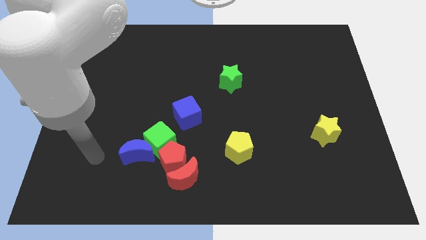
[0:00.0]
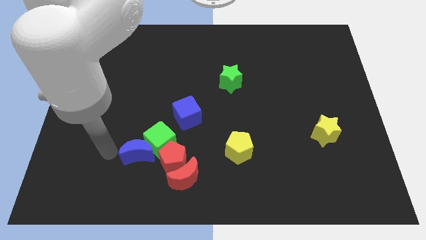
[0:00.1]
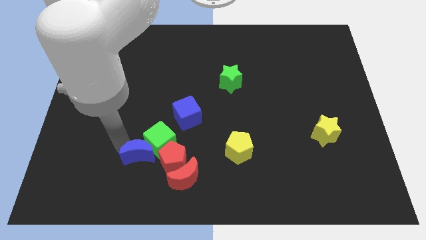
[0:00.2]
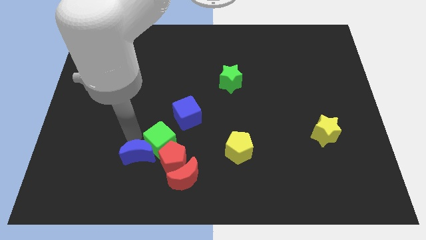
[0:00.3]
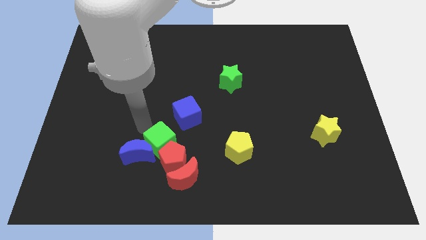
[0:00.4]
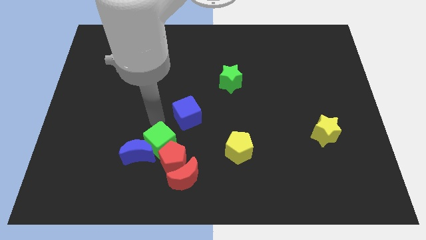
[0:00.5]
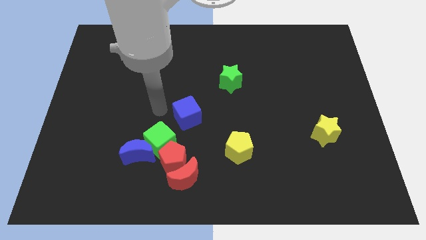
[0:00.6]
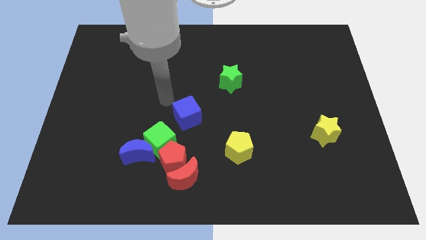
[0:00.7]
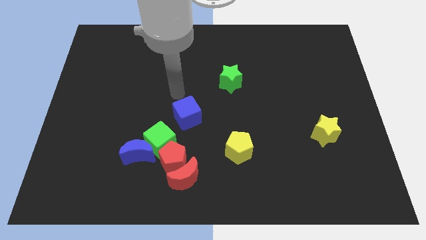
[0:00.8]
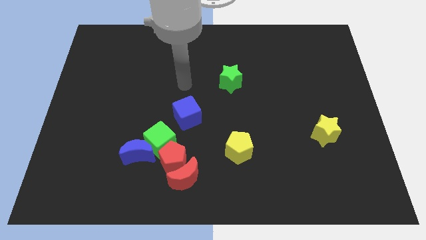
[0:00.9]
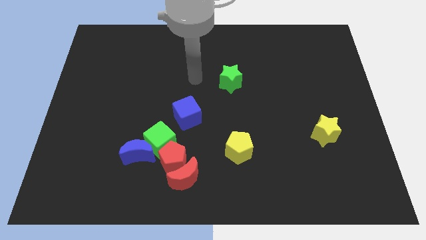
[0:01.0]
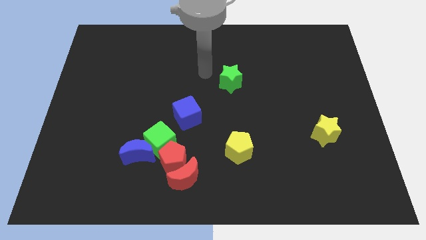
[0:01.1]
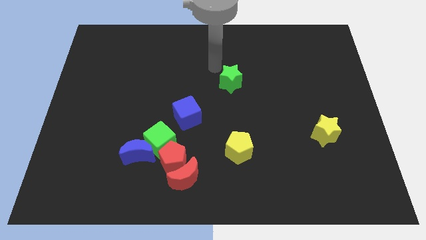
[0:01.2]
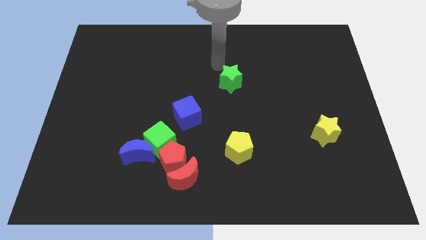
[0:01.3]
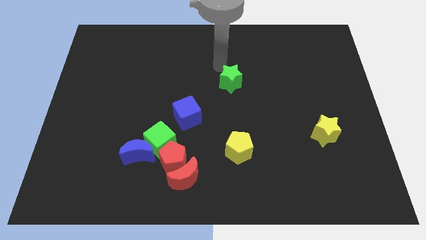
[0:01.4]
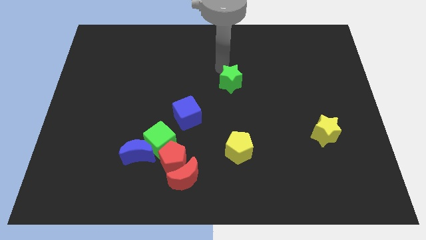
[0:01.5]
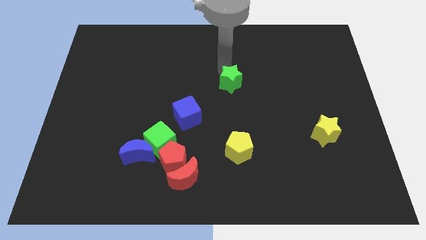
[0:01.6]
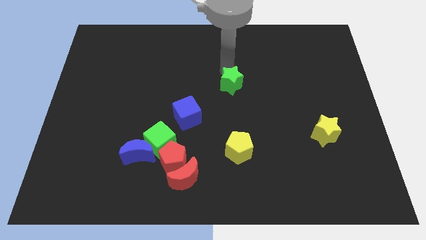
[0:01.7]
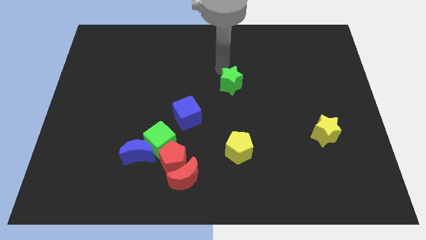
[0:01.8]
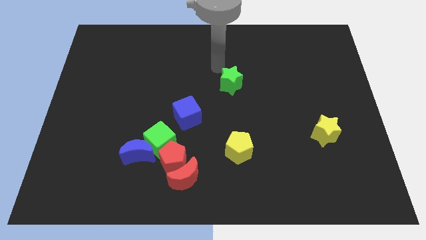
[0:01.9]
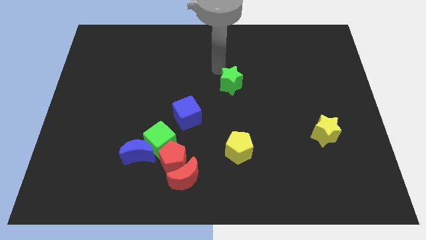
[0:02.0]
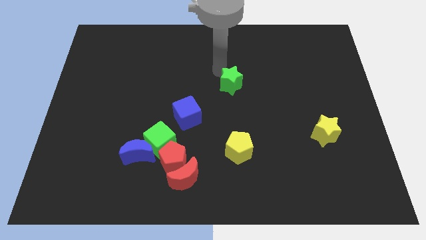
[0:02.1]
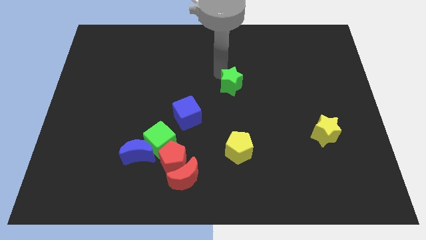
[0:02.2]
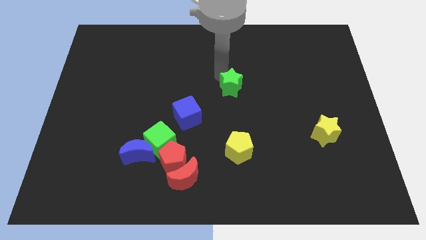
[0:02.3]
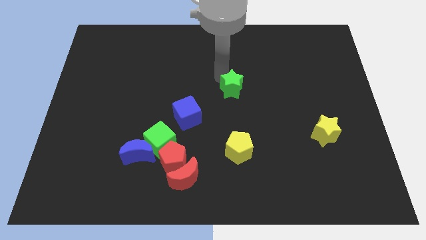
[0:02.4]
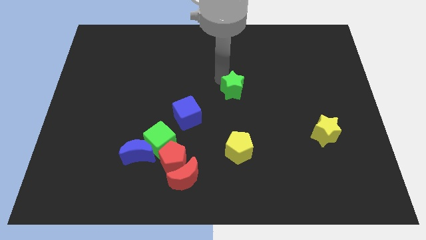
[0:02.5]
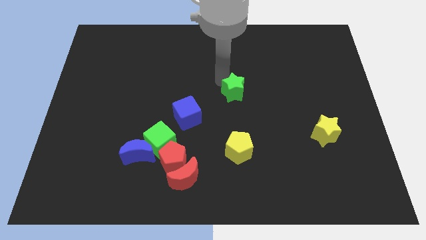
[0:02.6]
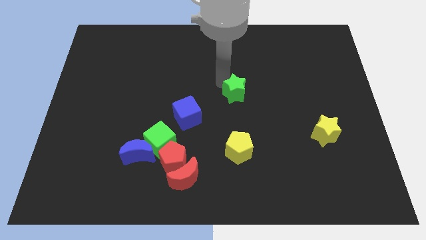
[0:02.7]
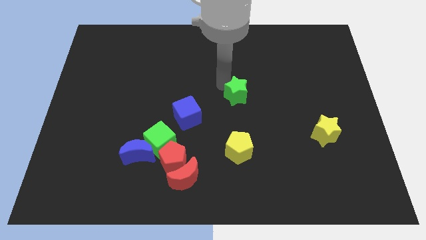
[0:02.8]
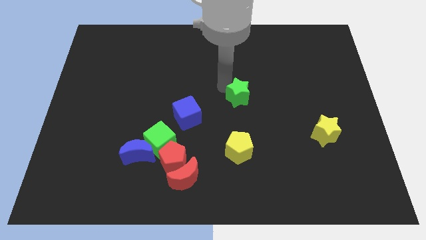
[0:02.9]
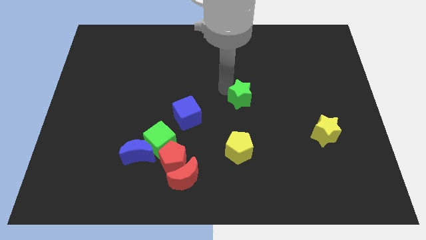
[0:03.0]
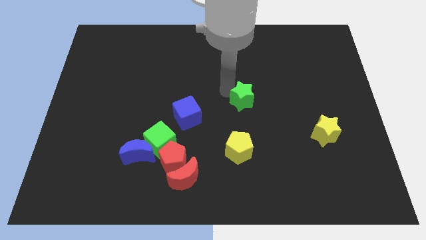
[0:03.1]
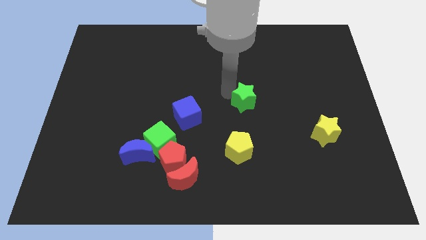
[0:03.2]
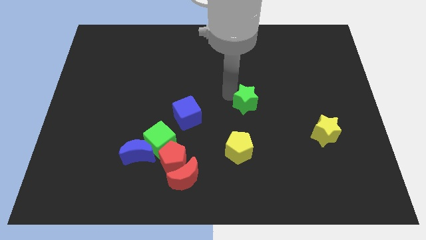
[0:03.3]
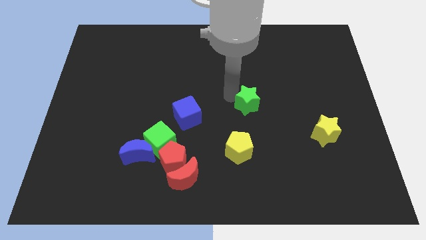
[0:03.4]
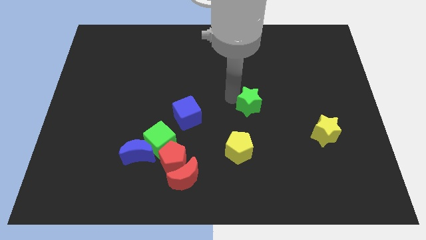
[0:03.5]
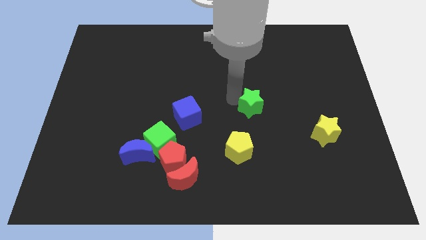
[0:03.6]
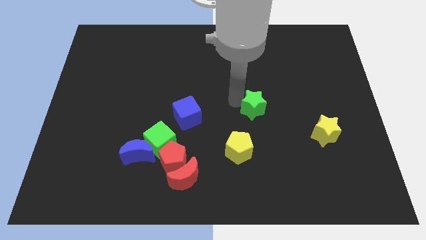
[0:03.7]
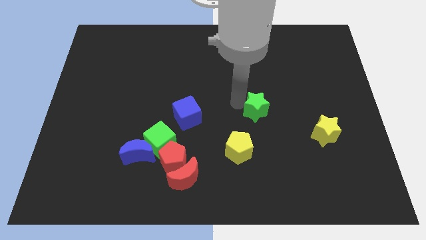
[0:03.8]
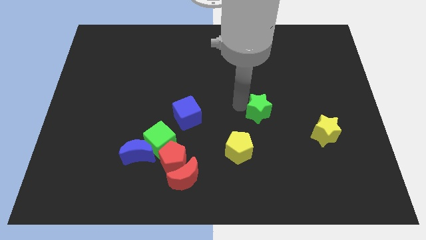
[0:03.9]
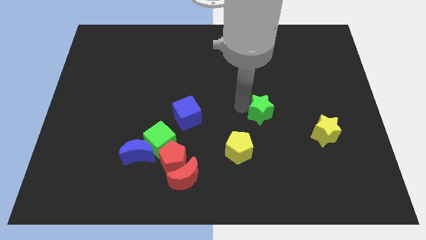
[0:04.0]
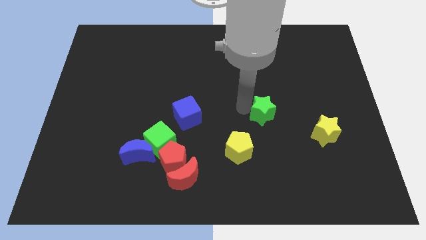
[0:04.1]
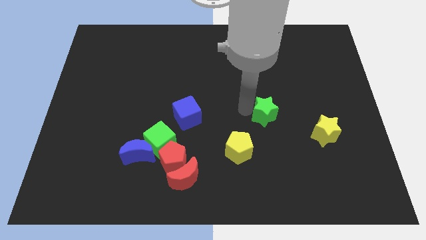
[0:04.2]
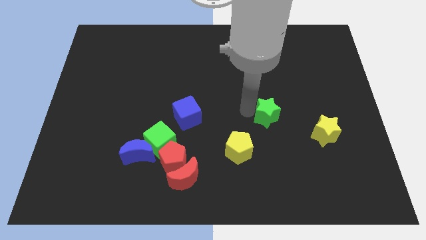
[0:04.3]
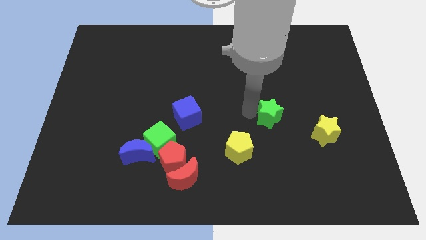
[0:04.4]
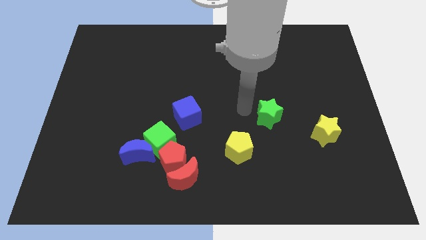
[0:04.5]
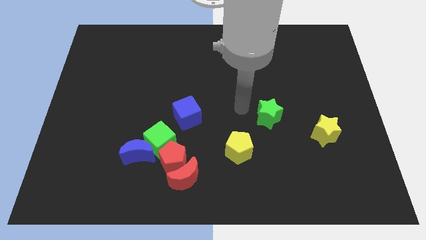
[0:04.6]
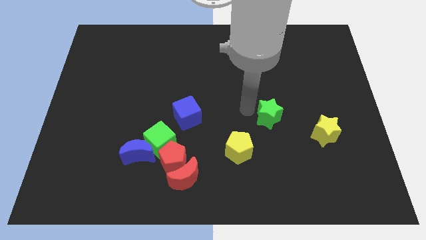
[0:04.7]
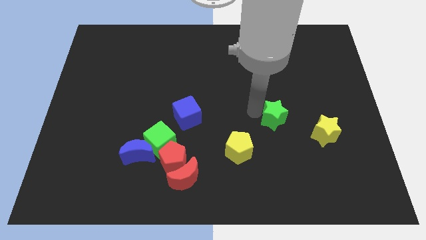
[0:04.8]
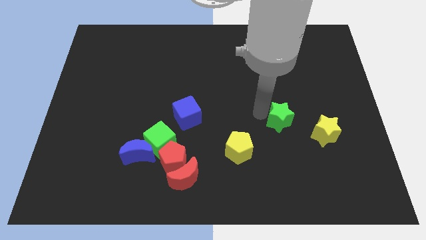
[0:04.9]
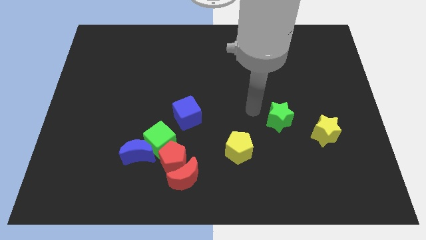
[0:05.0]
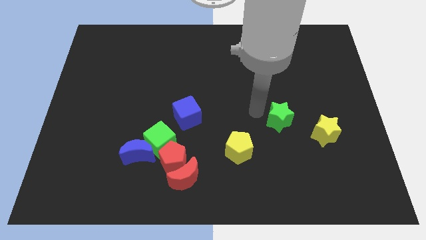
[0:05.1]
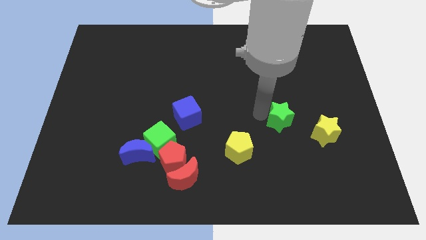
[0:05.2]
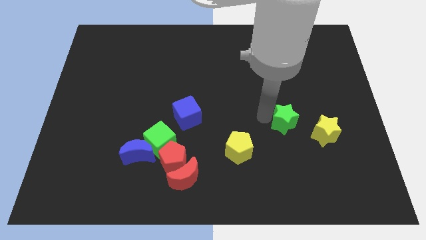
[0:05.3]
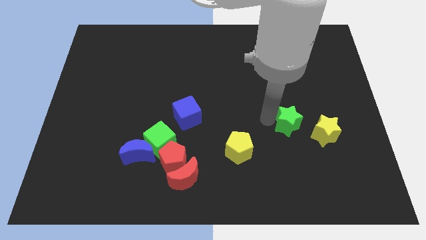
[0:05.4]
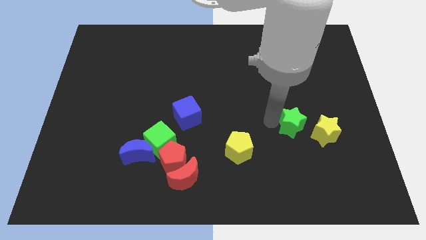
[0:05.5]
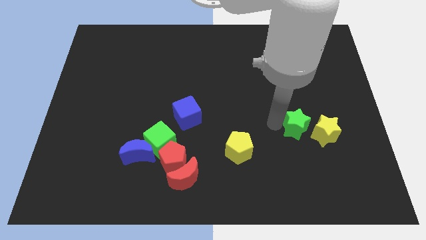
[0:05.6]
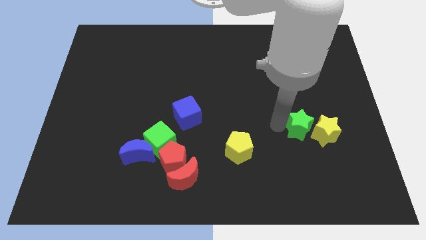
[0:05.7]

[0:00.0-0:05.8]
put the green star towards the yellow star
